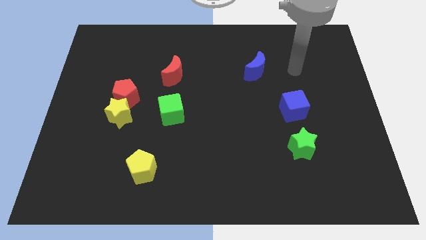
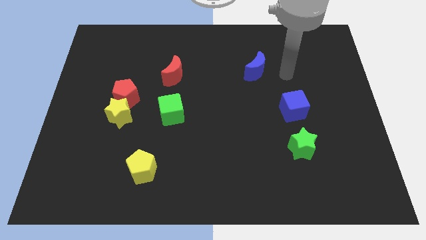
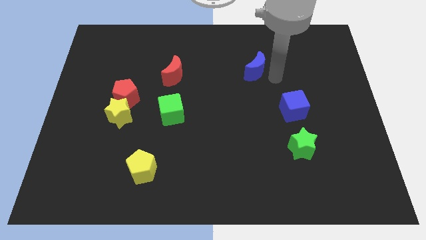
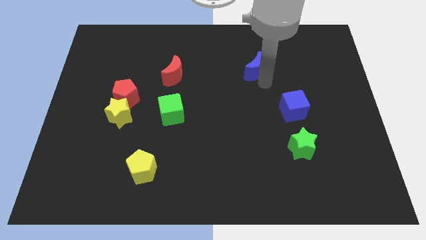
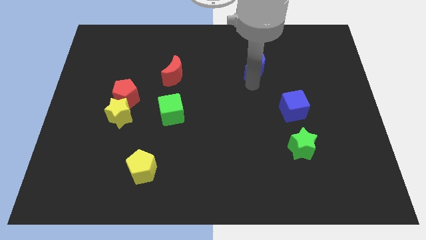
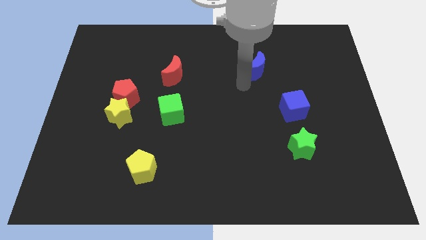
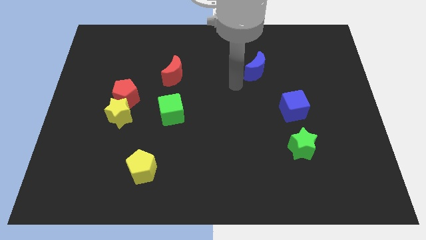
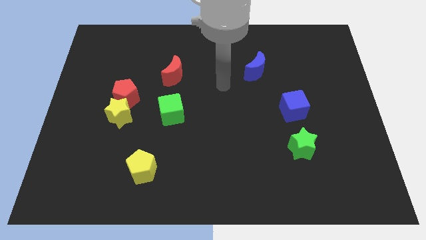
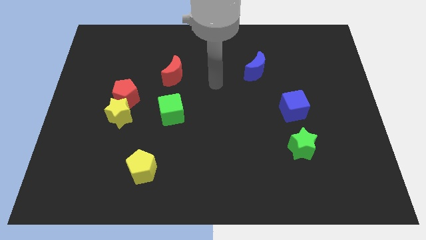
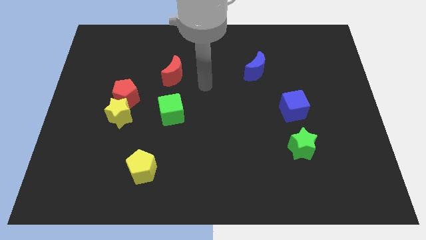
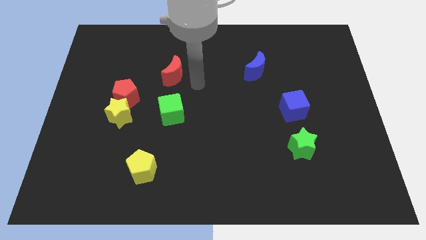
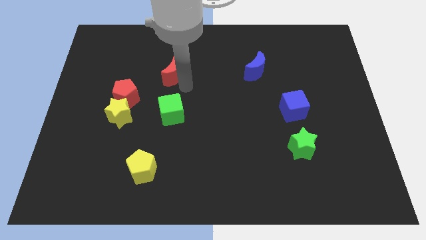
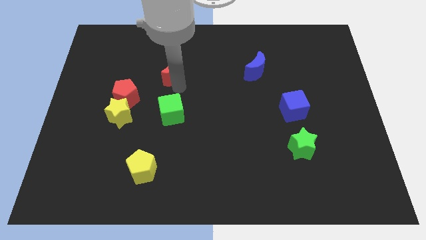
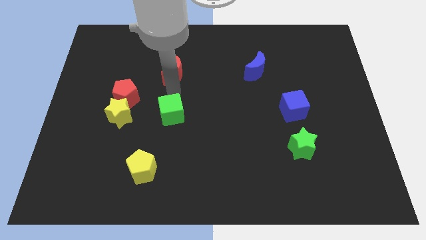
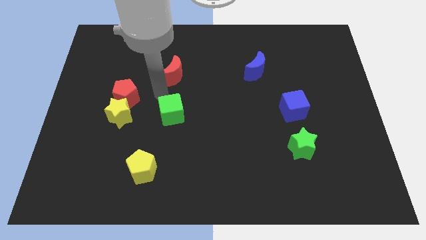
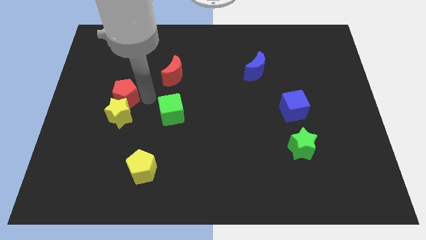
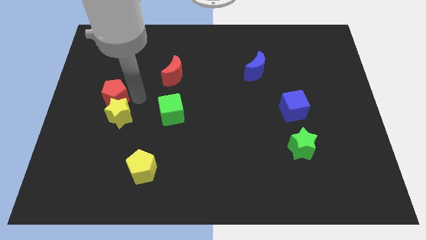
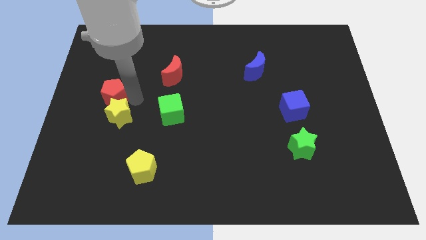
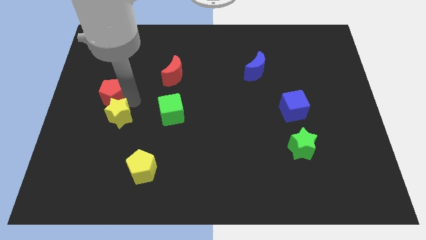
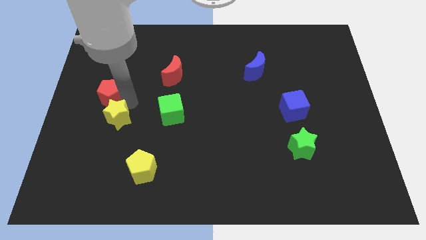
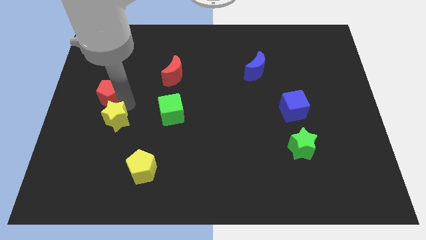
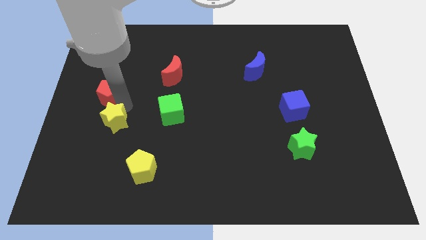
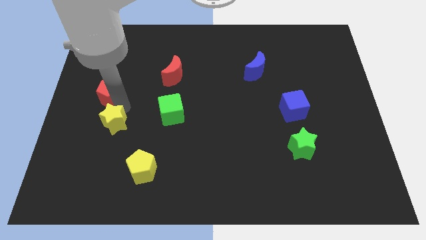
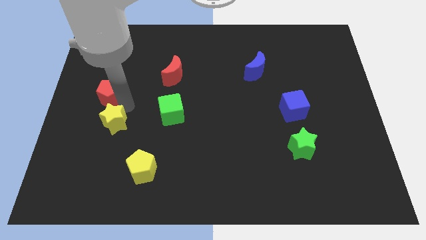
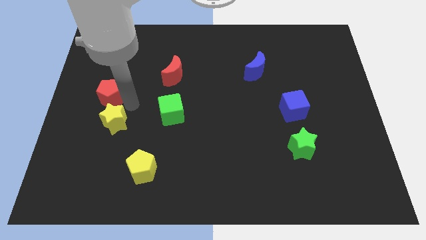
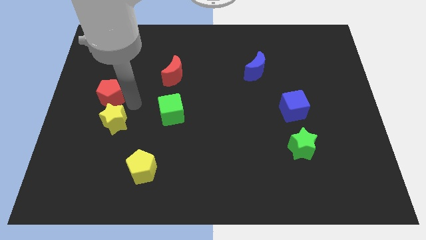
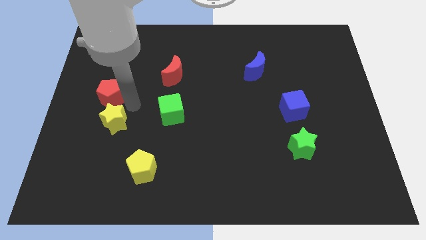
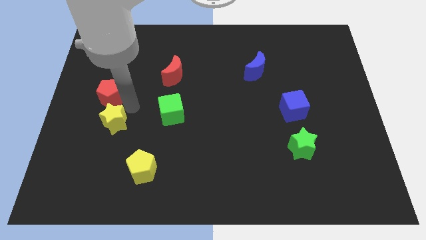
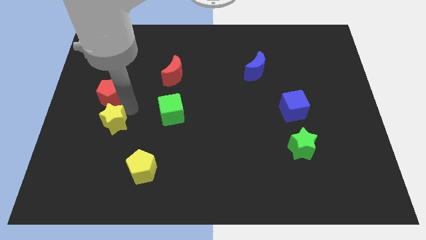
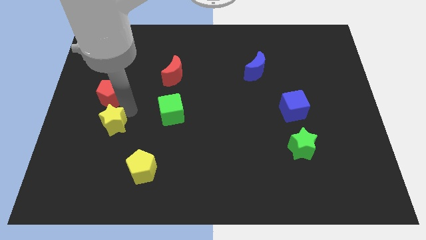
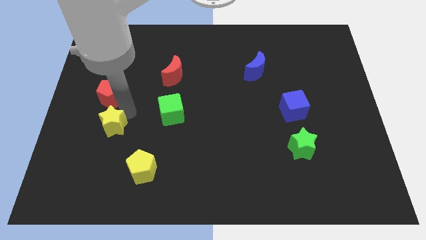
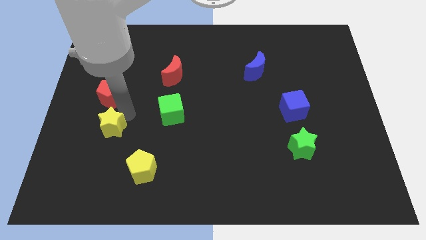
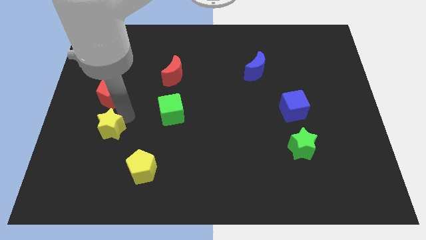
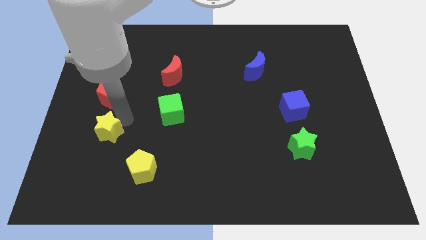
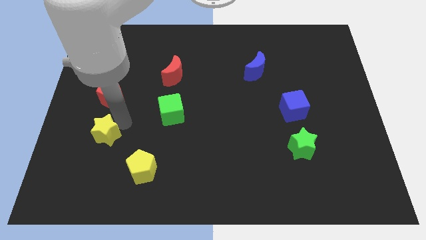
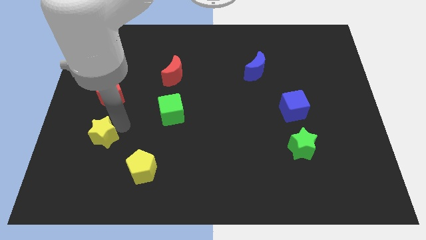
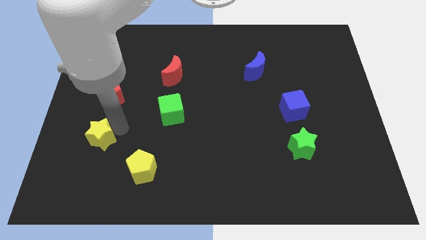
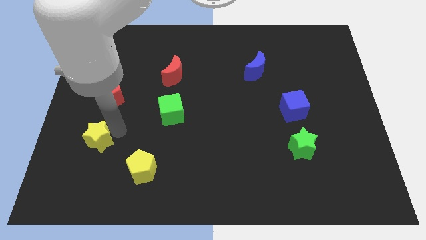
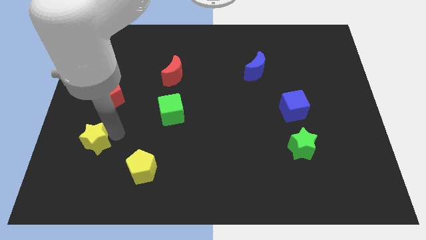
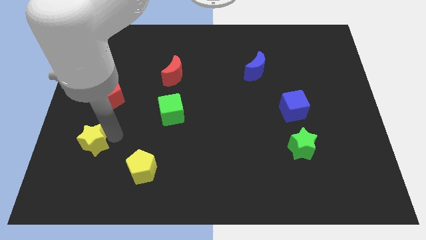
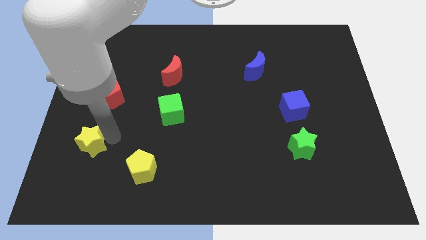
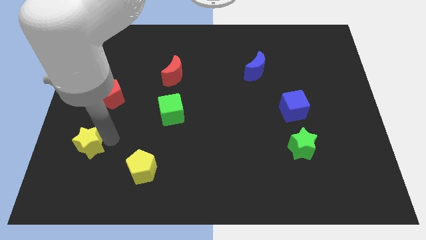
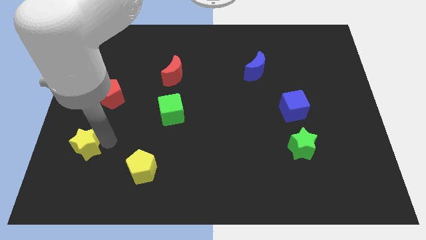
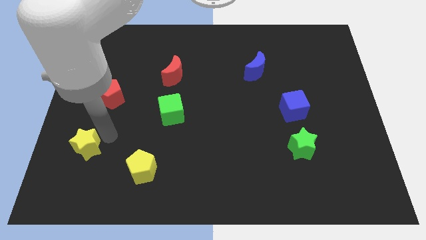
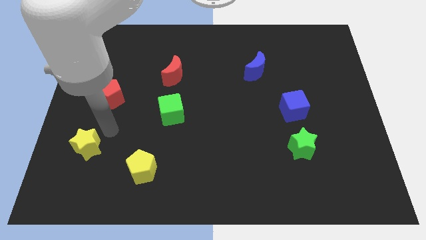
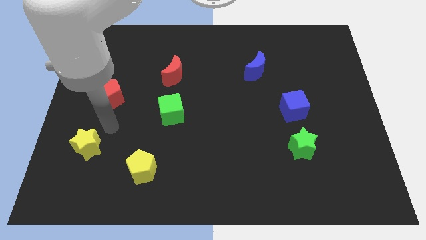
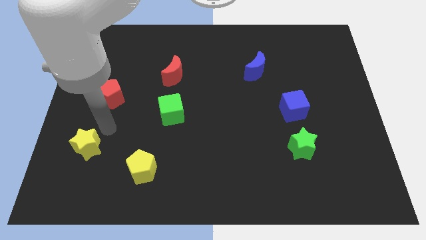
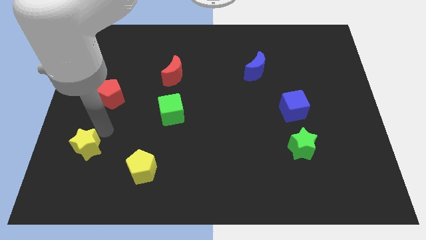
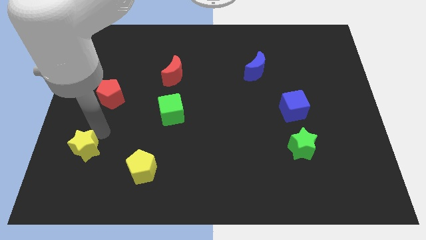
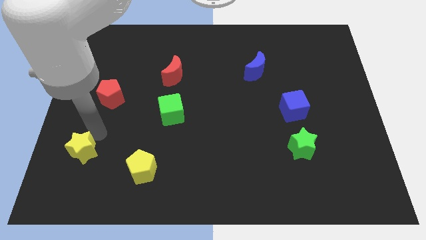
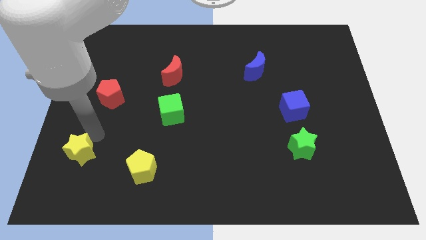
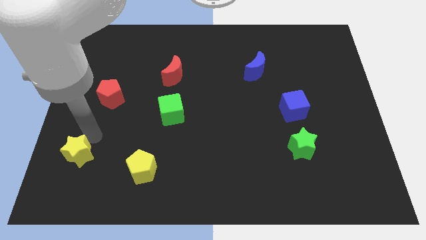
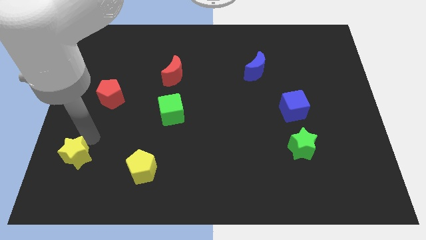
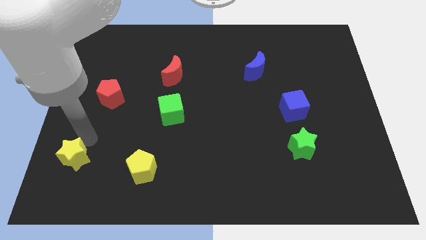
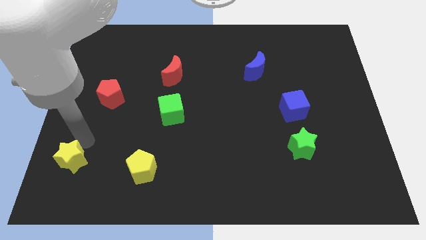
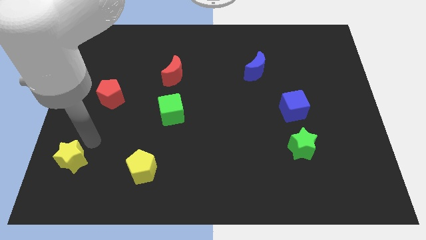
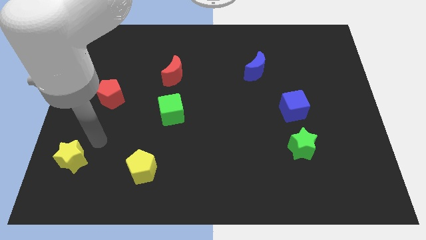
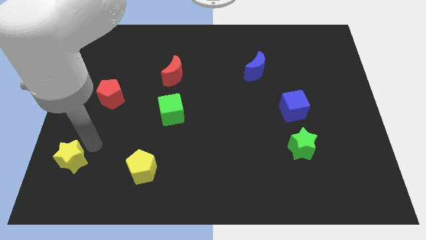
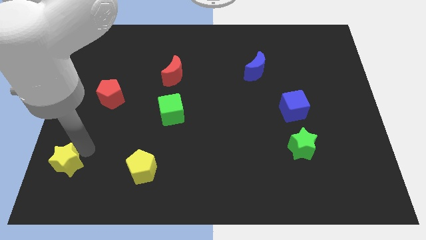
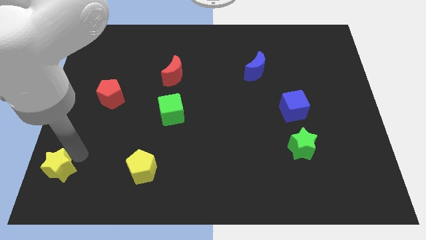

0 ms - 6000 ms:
push the yellow star to the bottom left
